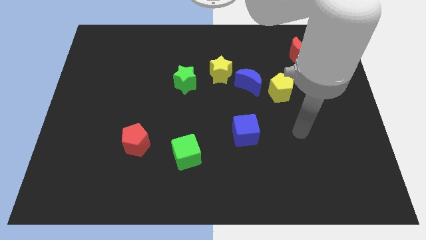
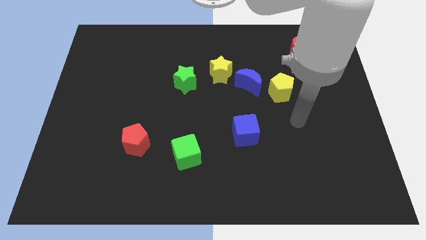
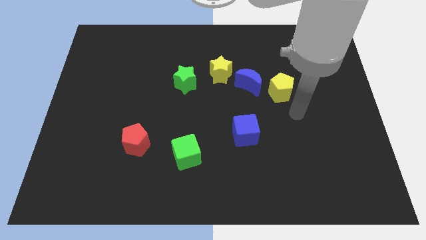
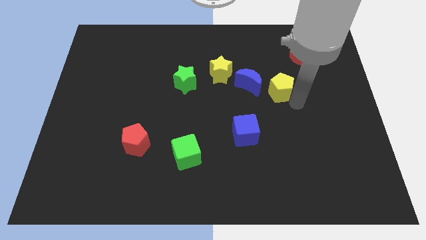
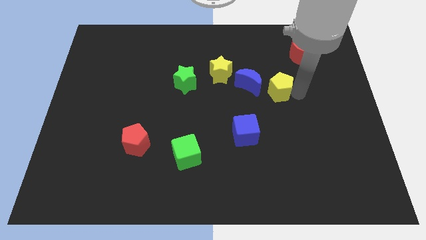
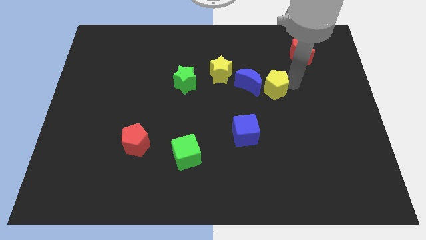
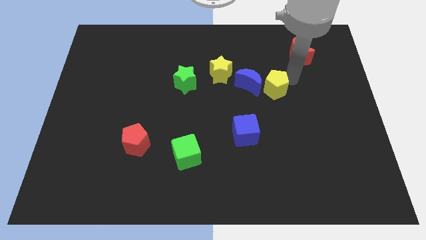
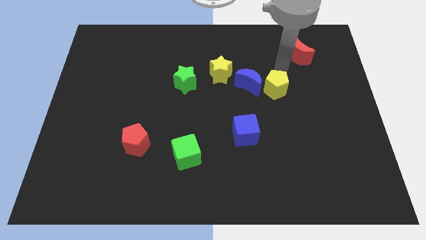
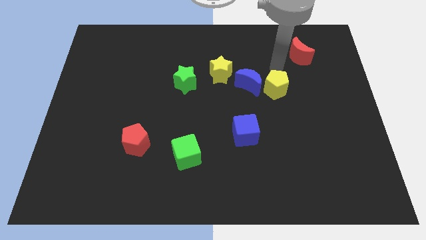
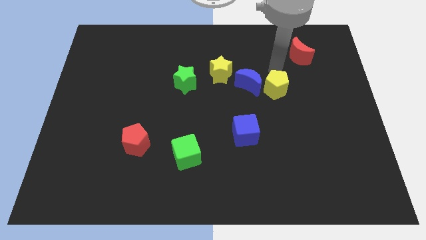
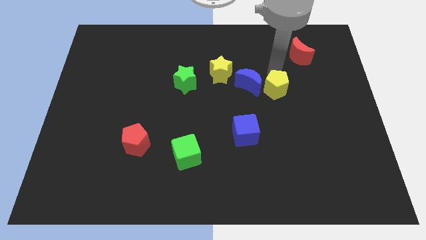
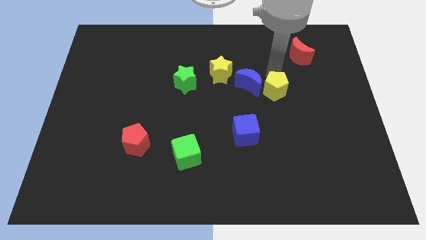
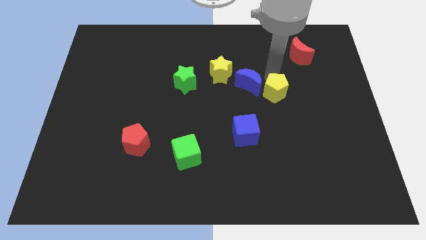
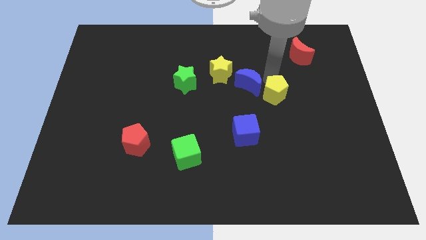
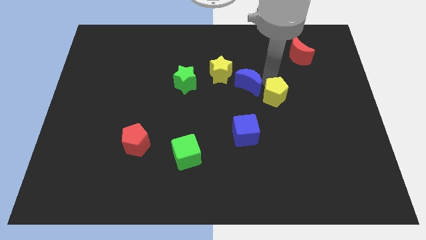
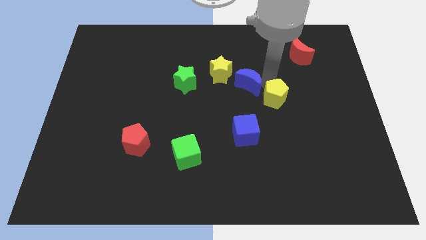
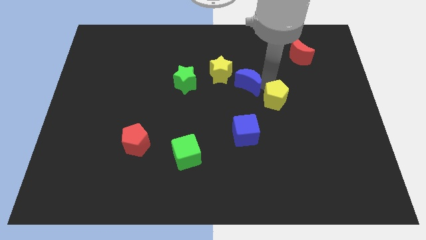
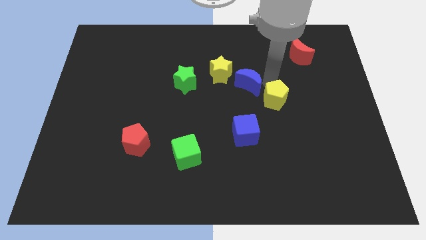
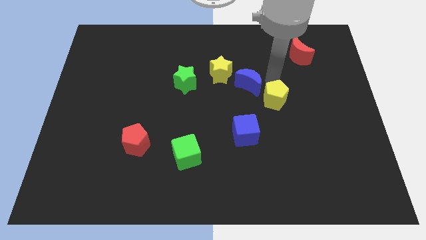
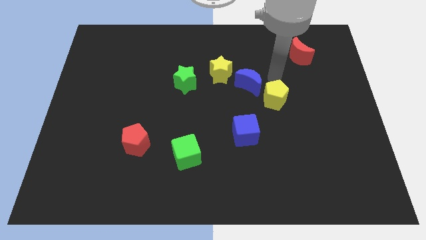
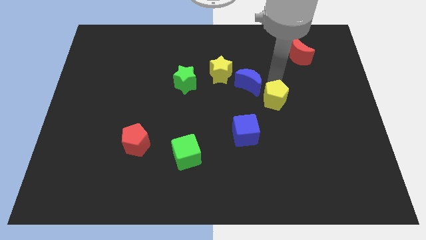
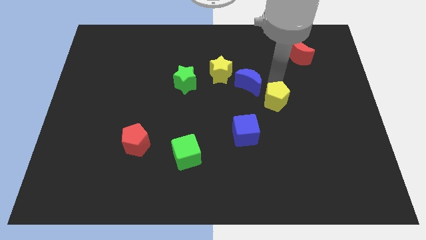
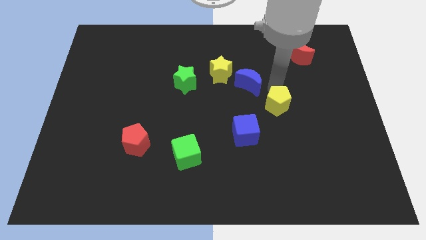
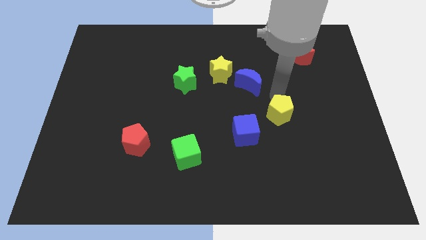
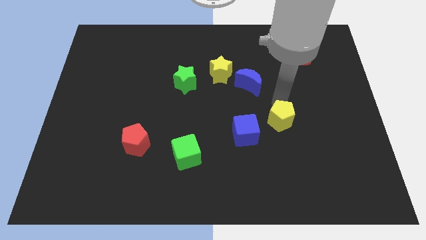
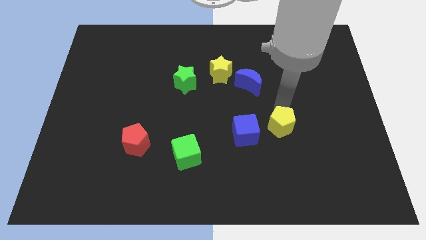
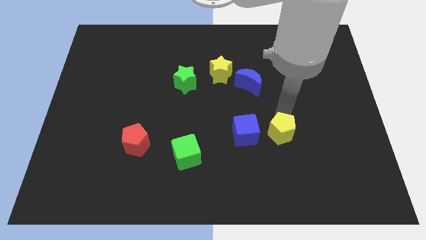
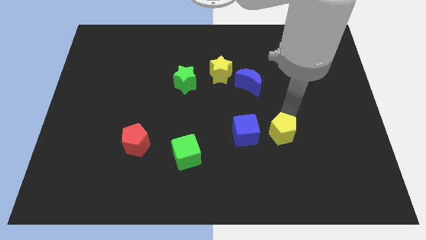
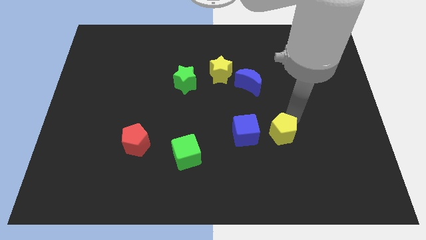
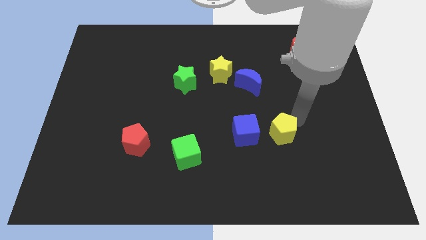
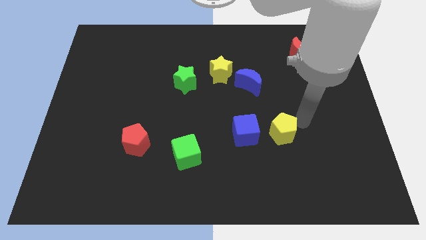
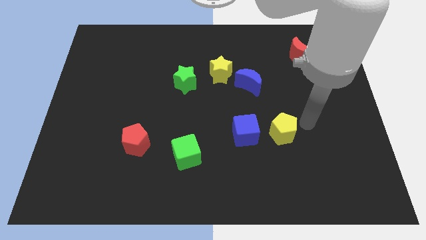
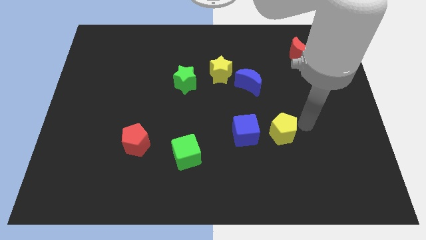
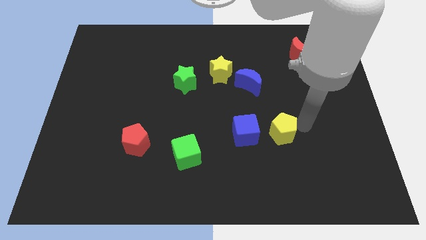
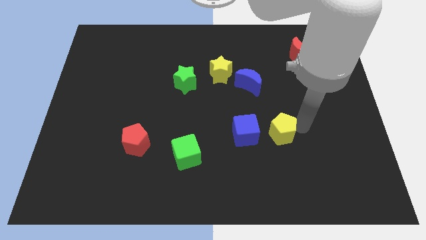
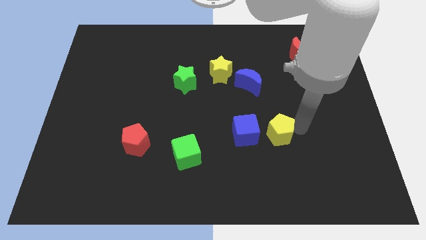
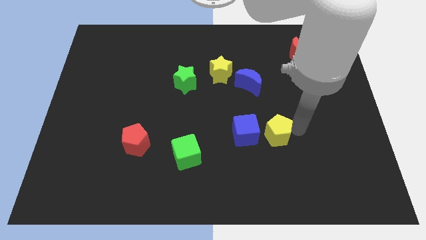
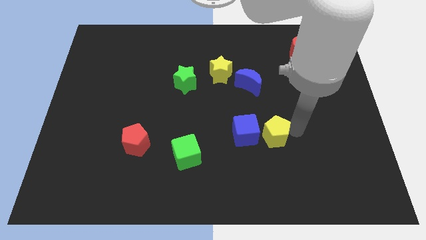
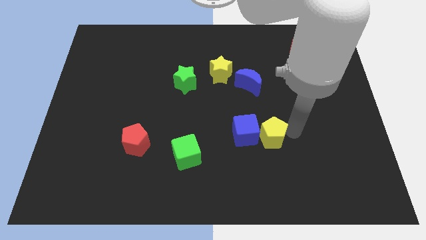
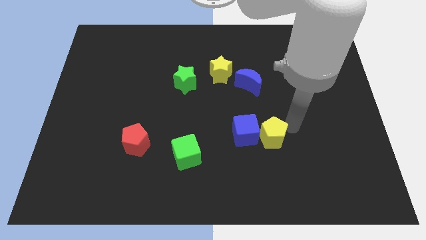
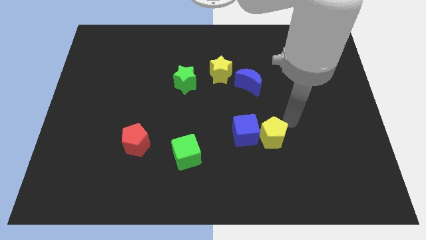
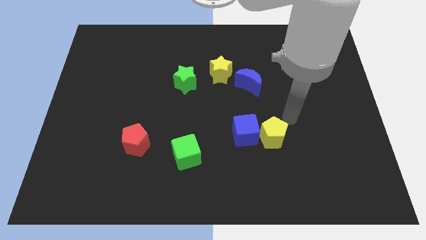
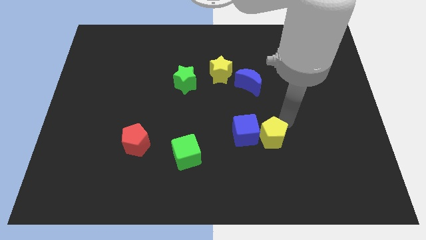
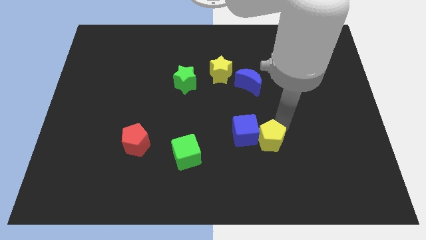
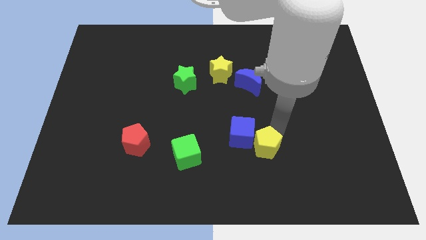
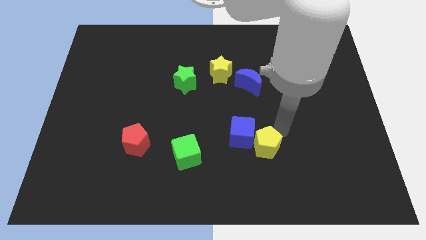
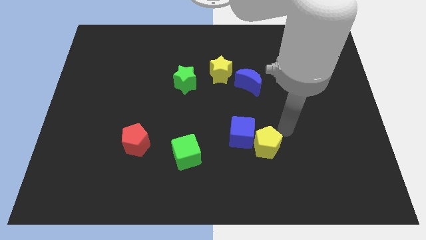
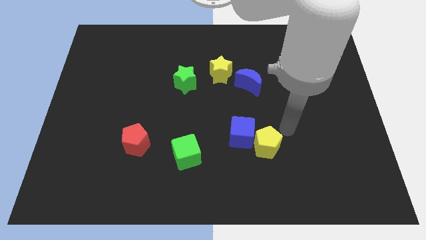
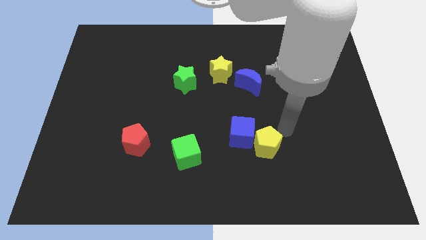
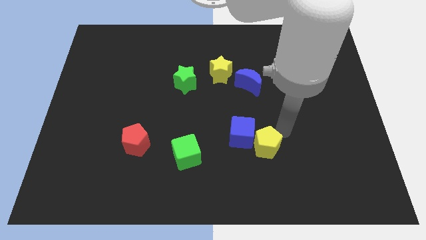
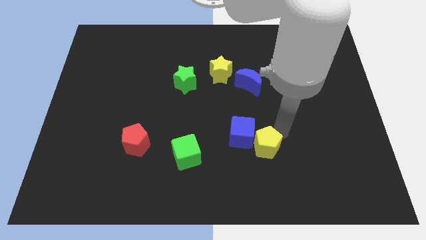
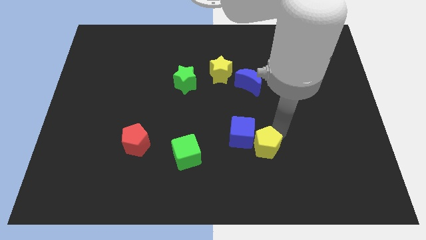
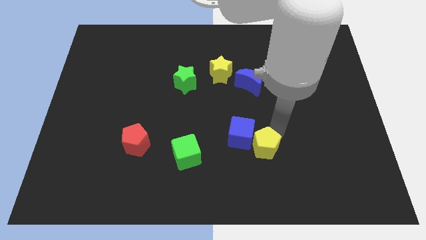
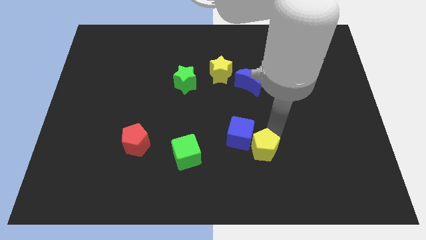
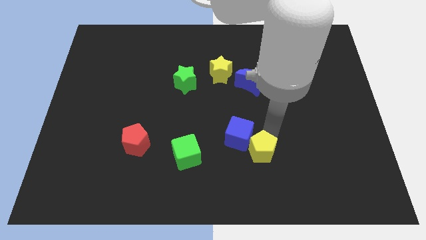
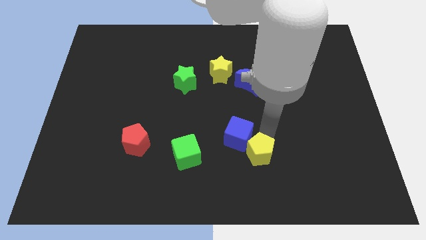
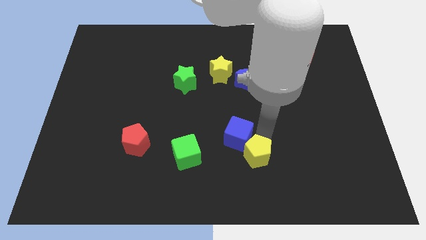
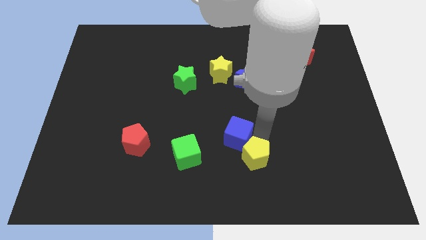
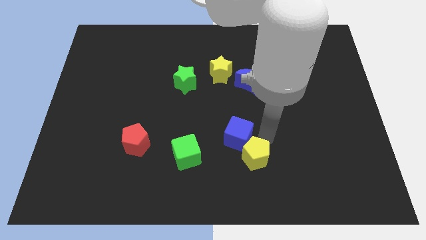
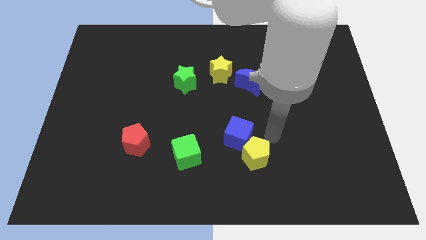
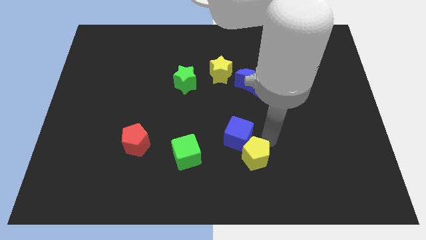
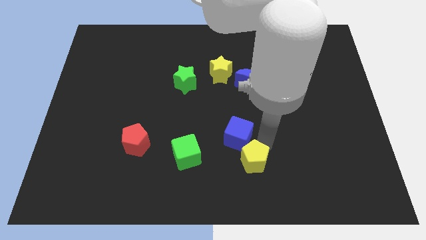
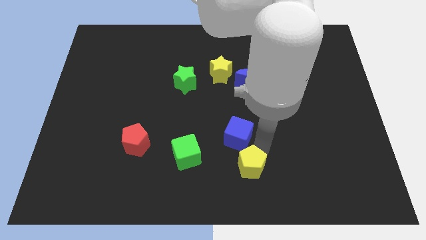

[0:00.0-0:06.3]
move the yellow pentagon to the bottom side
